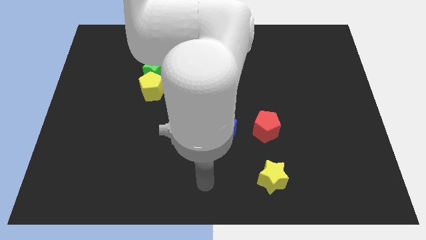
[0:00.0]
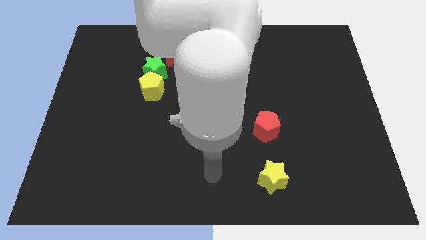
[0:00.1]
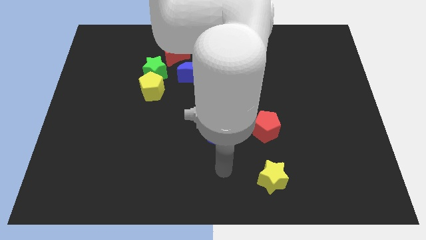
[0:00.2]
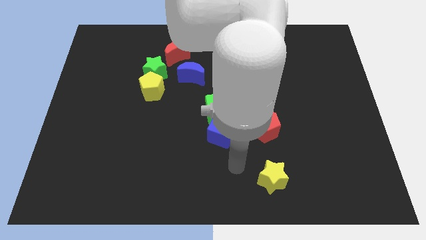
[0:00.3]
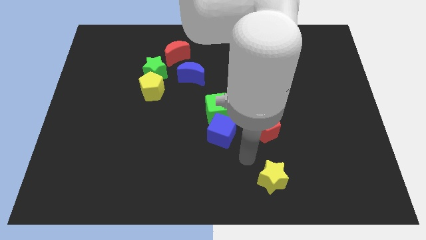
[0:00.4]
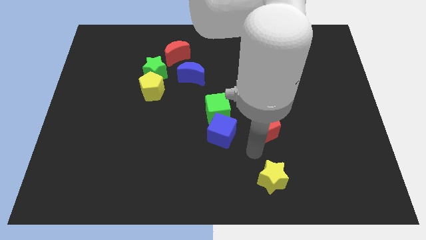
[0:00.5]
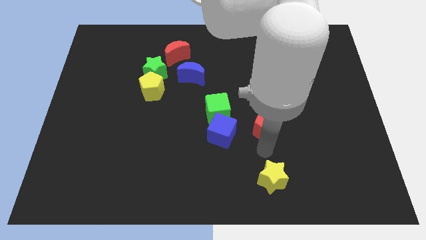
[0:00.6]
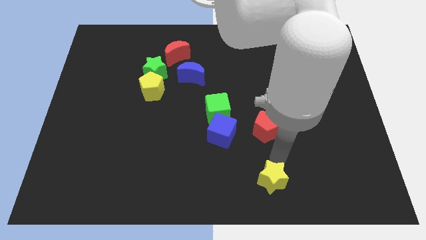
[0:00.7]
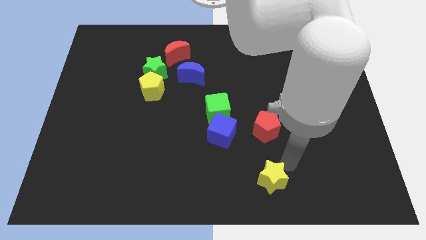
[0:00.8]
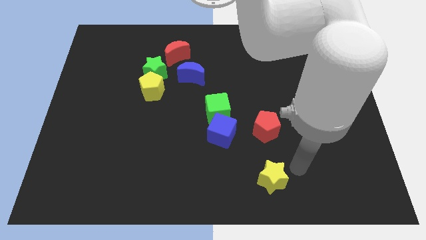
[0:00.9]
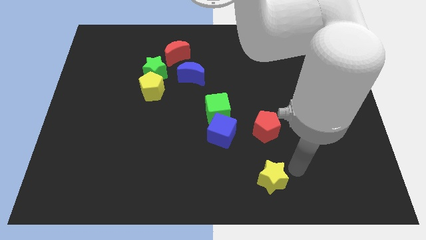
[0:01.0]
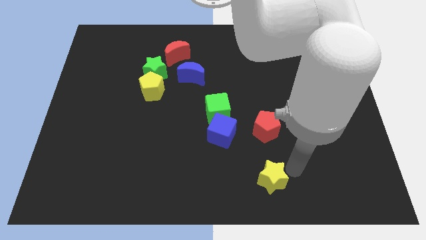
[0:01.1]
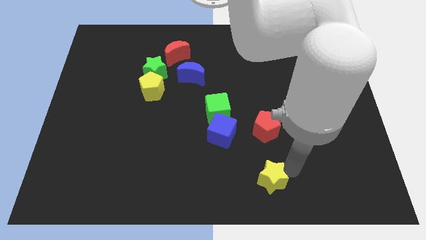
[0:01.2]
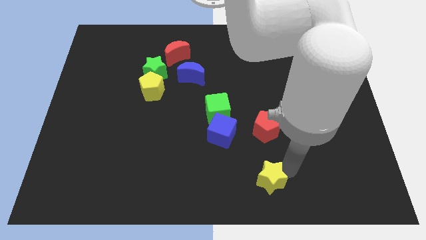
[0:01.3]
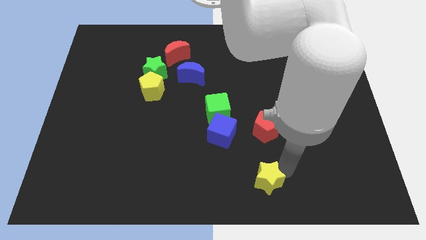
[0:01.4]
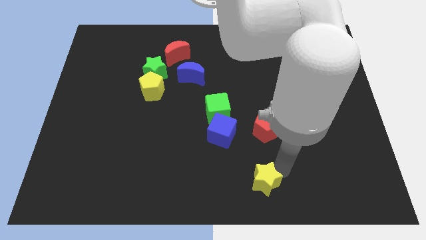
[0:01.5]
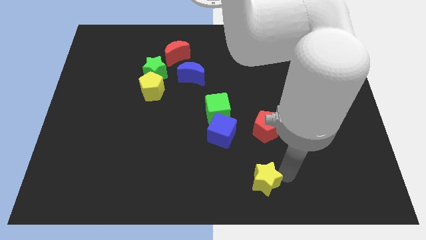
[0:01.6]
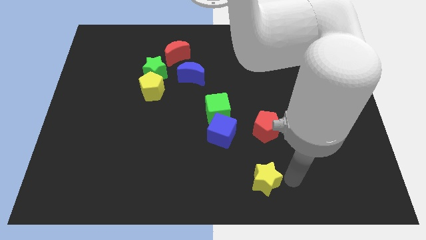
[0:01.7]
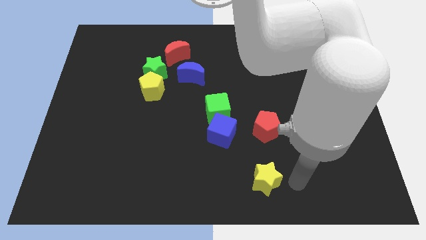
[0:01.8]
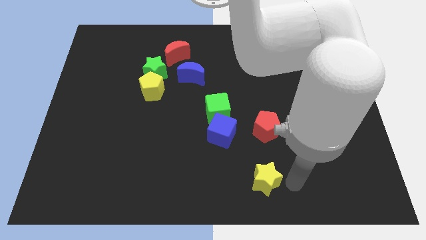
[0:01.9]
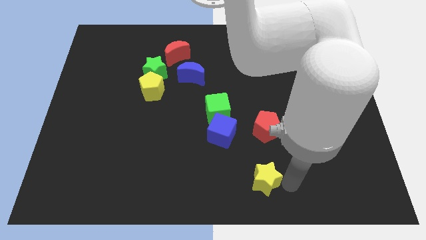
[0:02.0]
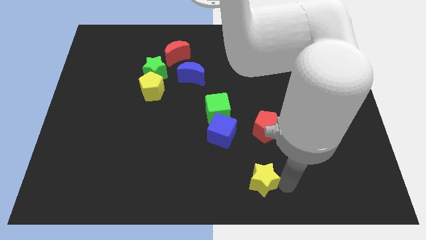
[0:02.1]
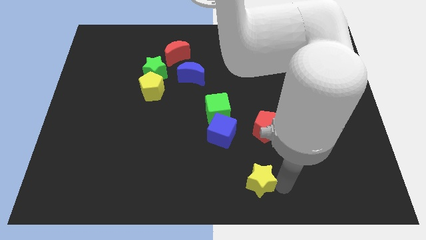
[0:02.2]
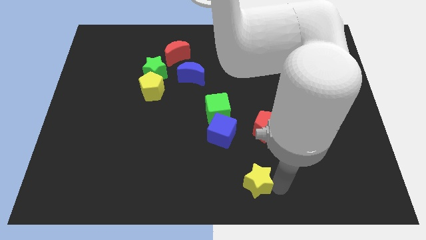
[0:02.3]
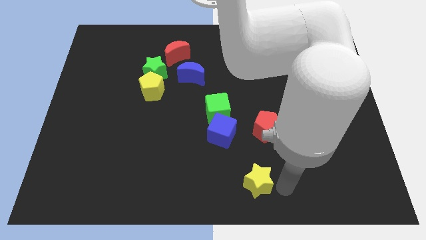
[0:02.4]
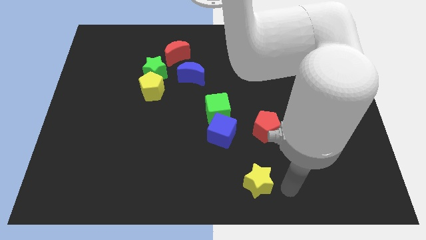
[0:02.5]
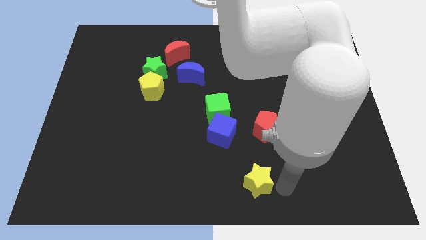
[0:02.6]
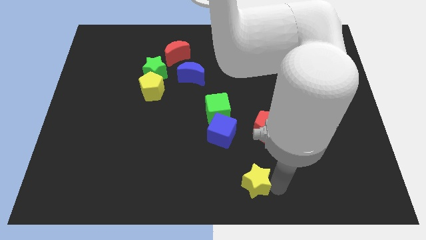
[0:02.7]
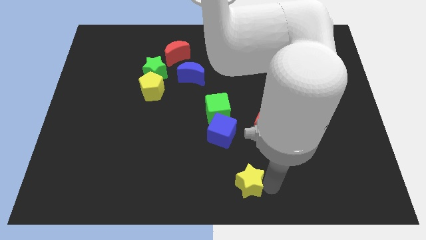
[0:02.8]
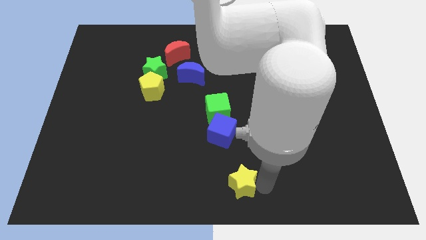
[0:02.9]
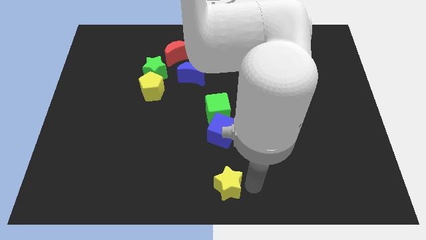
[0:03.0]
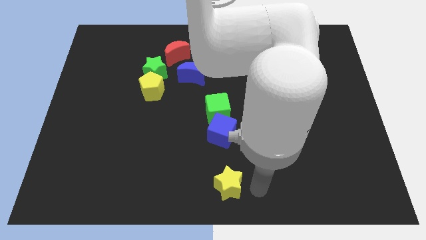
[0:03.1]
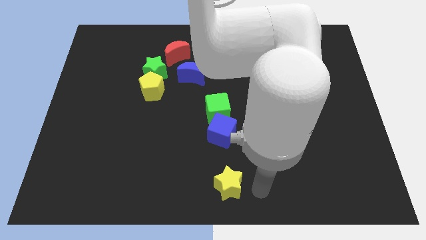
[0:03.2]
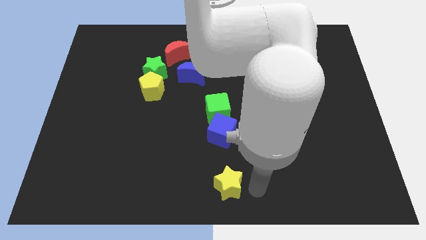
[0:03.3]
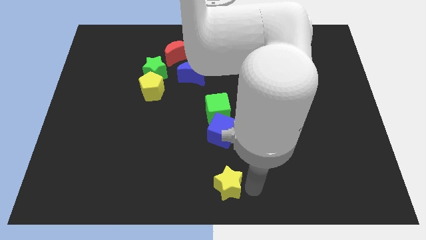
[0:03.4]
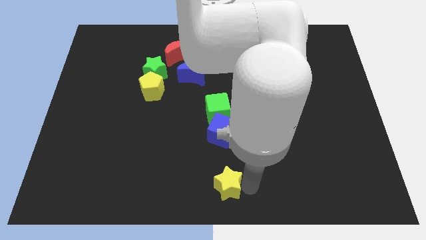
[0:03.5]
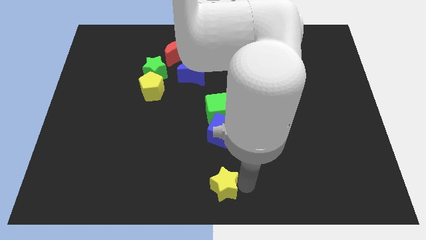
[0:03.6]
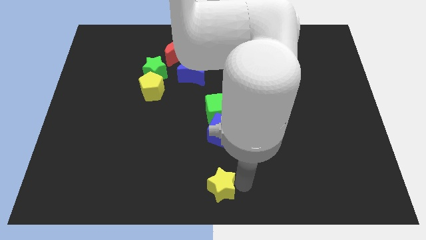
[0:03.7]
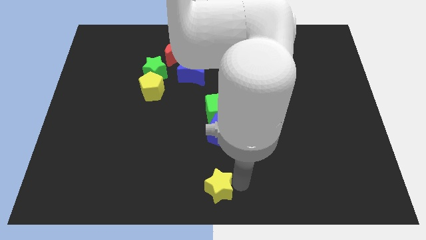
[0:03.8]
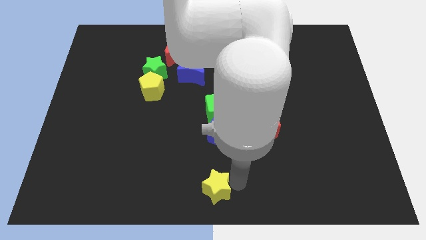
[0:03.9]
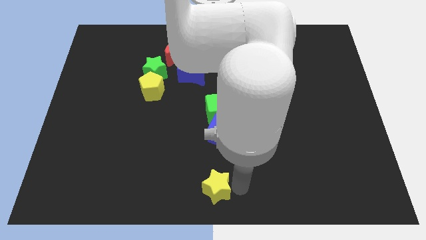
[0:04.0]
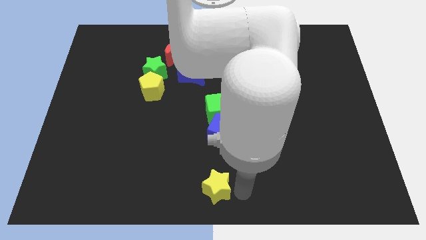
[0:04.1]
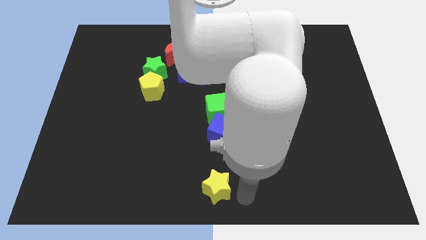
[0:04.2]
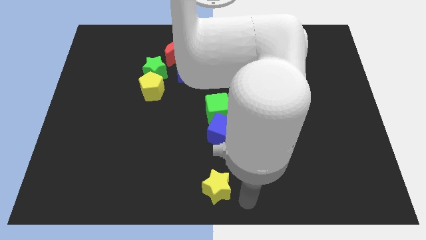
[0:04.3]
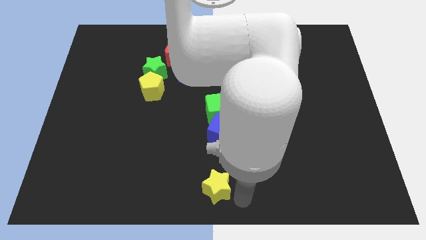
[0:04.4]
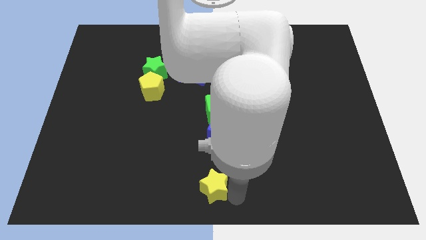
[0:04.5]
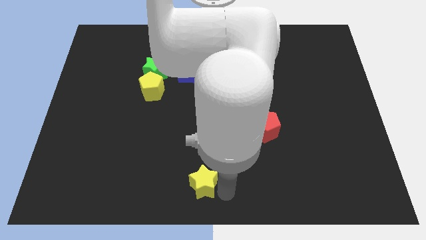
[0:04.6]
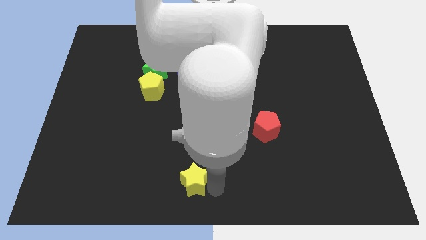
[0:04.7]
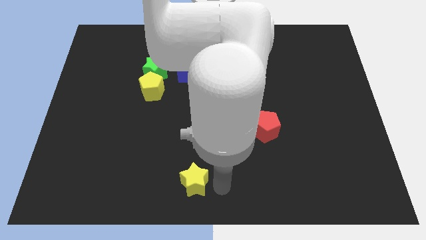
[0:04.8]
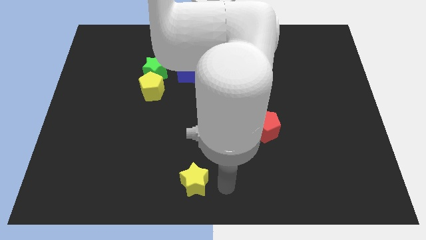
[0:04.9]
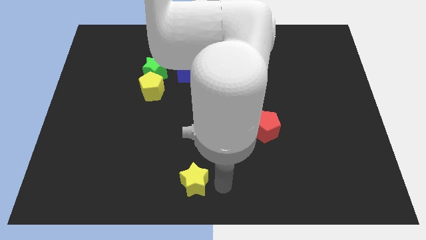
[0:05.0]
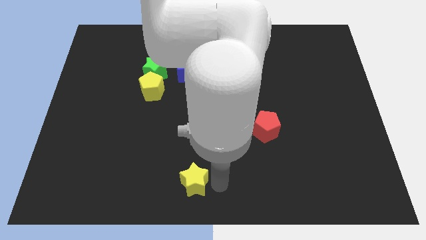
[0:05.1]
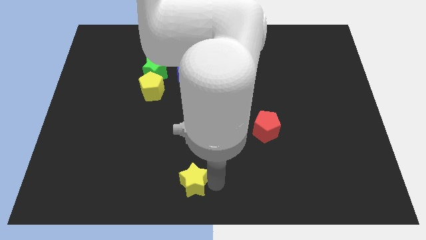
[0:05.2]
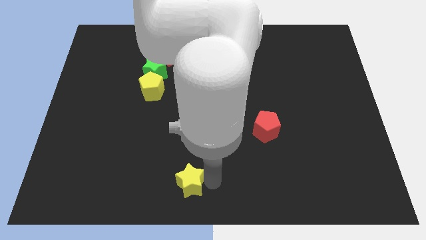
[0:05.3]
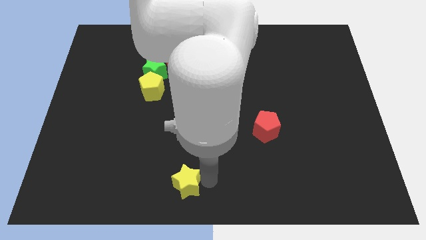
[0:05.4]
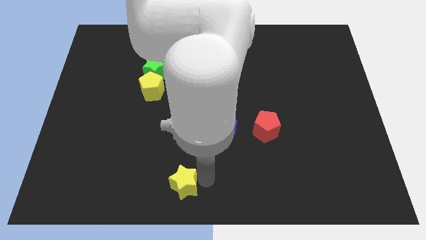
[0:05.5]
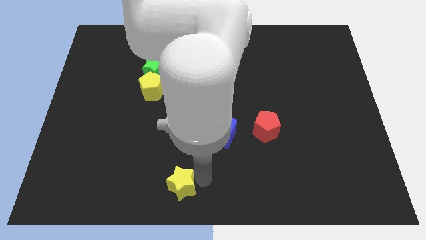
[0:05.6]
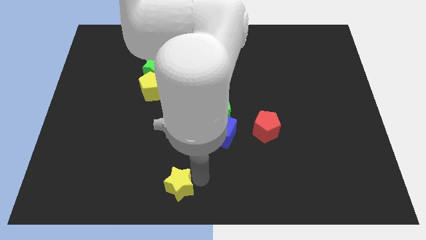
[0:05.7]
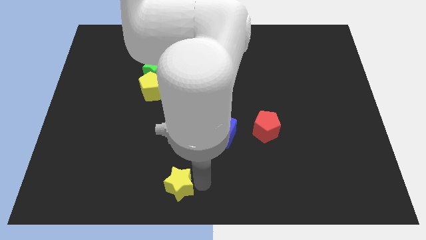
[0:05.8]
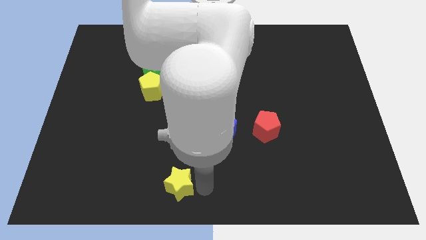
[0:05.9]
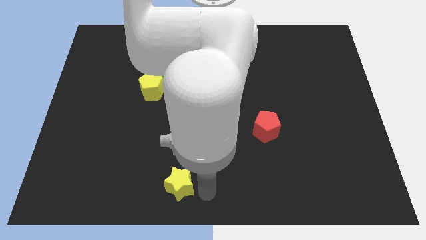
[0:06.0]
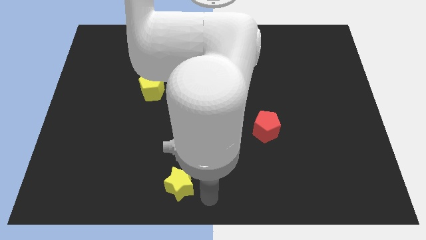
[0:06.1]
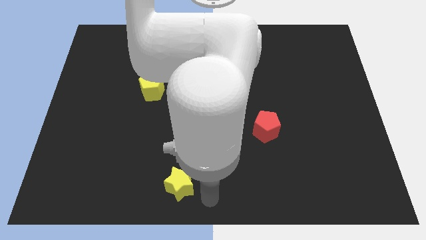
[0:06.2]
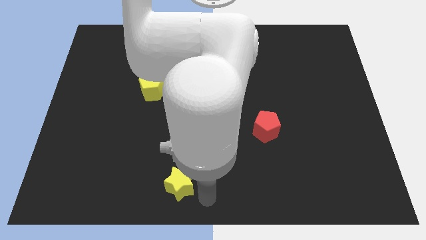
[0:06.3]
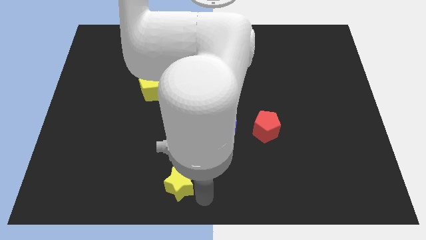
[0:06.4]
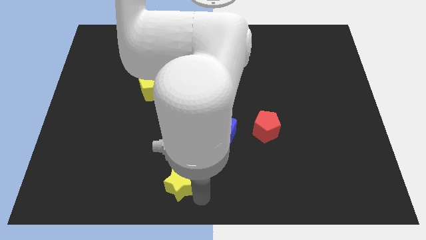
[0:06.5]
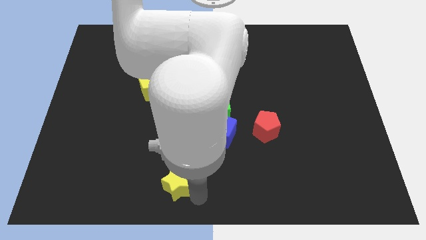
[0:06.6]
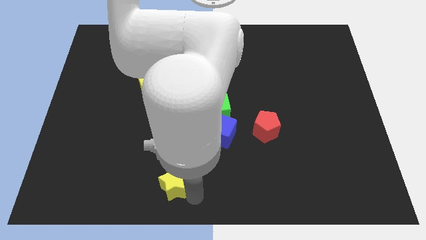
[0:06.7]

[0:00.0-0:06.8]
slide the yellow star to the left

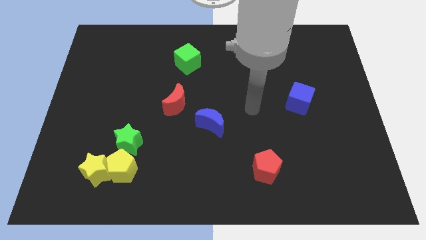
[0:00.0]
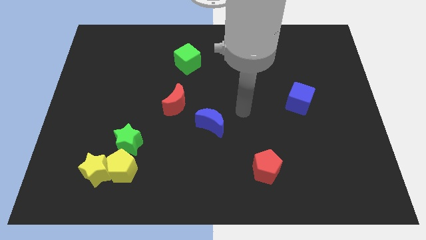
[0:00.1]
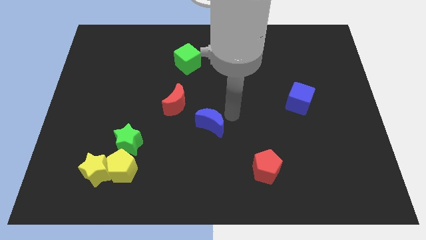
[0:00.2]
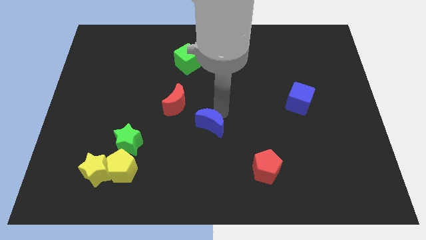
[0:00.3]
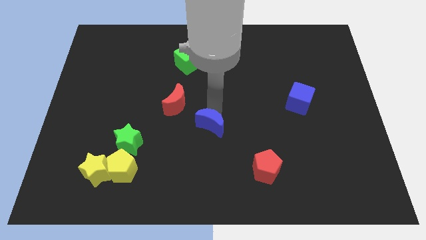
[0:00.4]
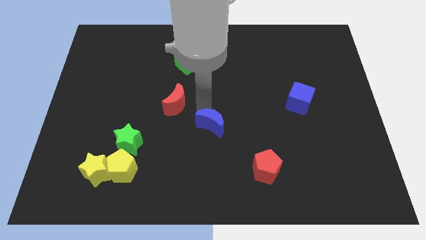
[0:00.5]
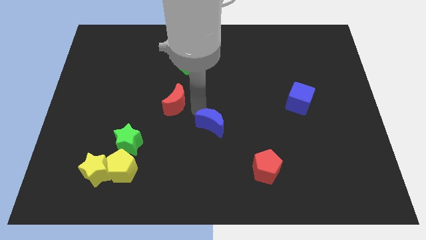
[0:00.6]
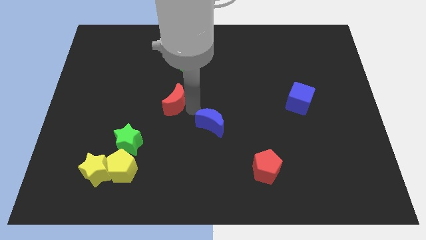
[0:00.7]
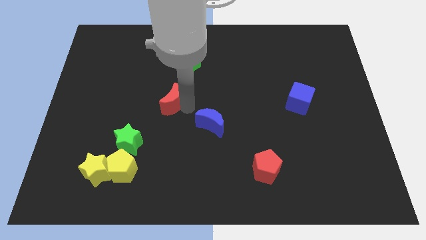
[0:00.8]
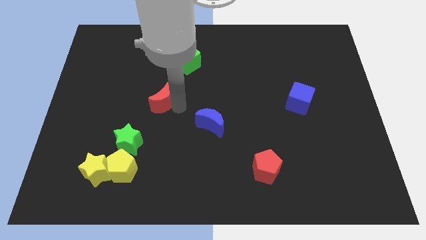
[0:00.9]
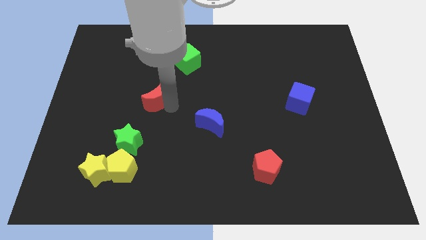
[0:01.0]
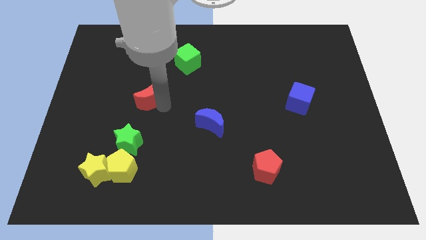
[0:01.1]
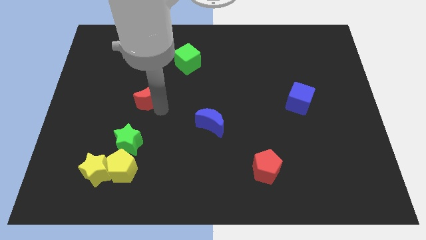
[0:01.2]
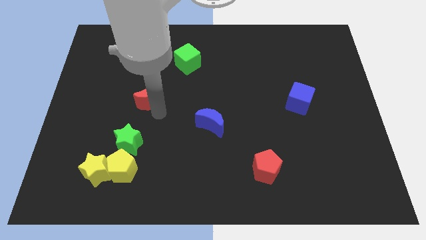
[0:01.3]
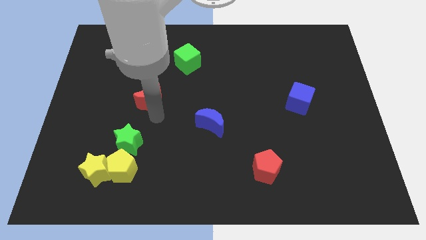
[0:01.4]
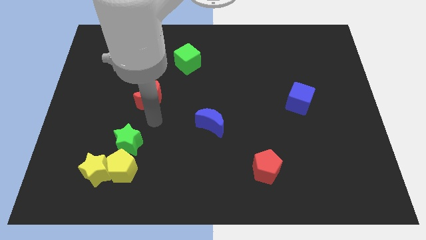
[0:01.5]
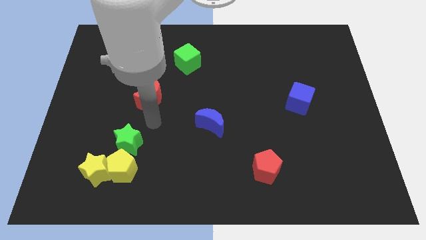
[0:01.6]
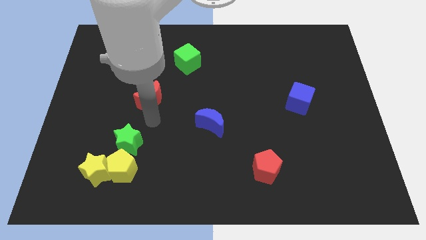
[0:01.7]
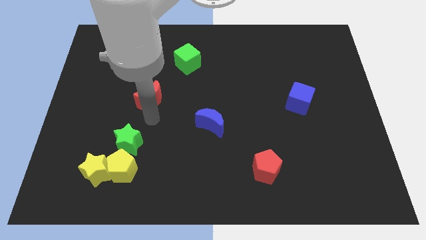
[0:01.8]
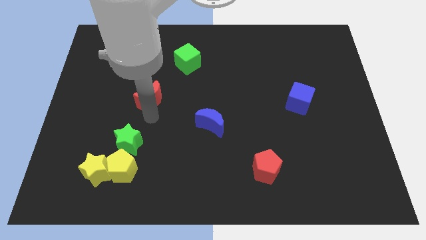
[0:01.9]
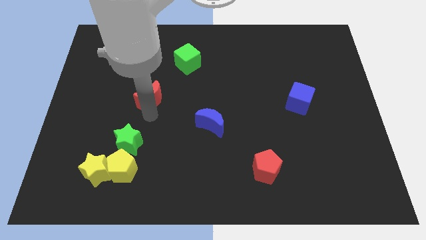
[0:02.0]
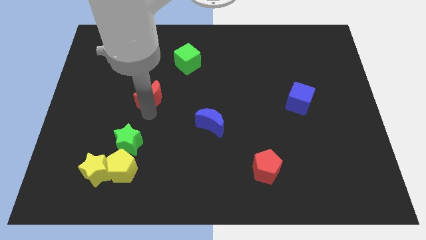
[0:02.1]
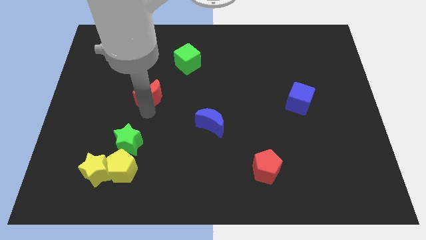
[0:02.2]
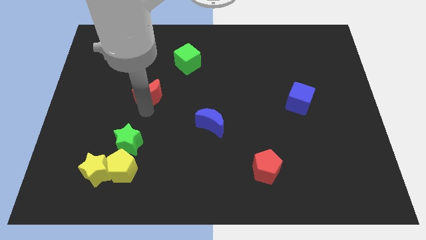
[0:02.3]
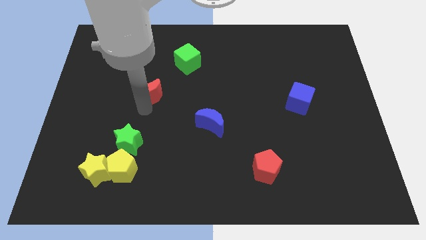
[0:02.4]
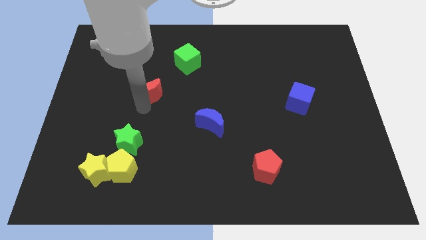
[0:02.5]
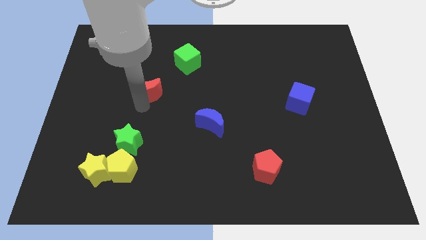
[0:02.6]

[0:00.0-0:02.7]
move the red moon a little bit diagonally up and to the left
